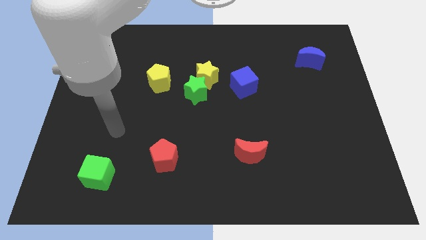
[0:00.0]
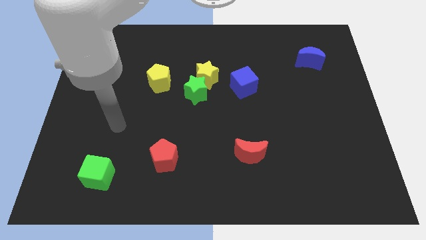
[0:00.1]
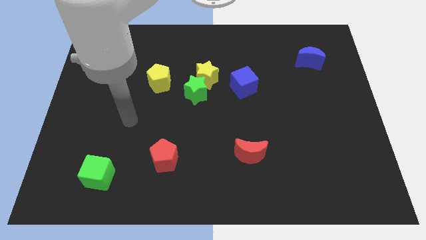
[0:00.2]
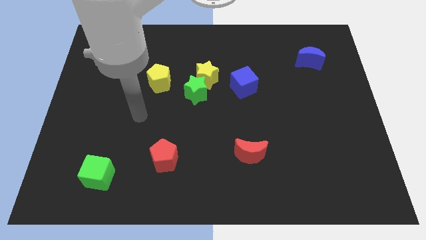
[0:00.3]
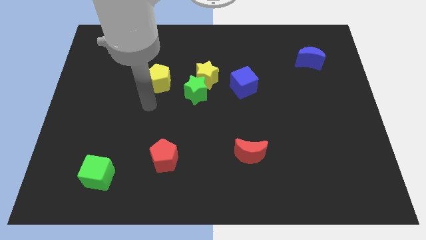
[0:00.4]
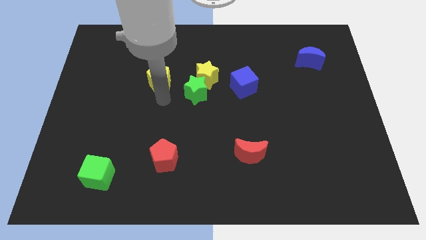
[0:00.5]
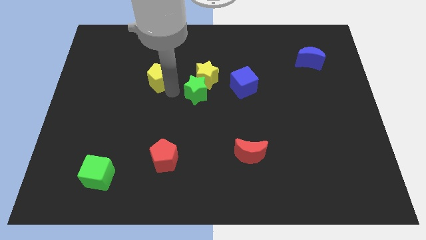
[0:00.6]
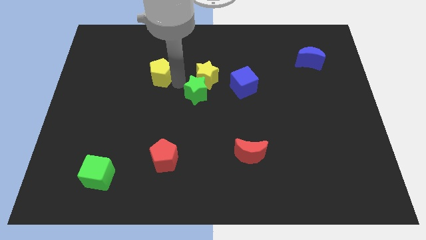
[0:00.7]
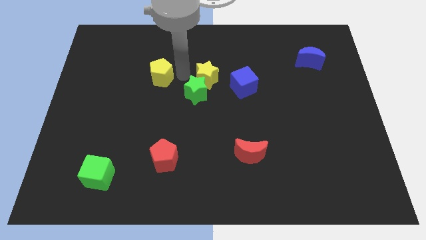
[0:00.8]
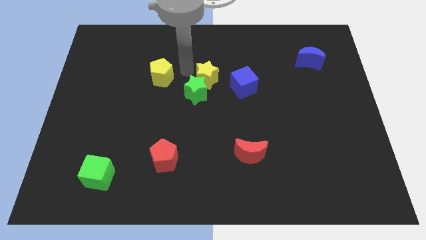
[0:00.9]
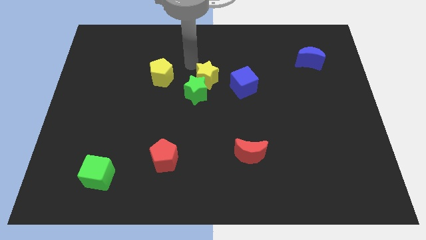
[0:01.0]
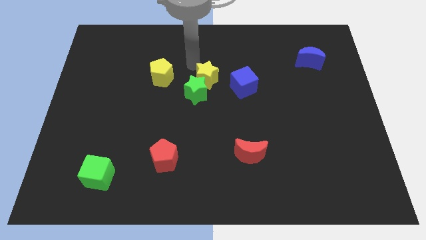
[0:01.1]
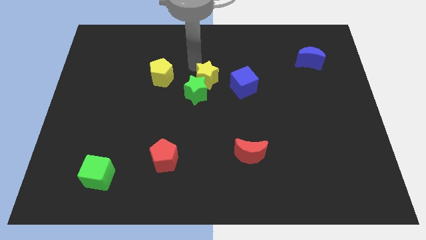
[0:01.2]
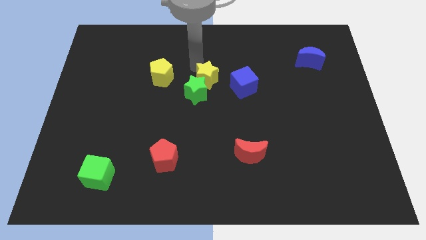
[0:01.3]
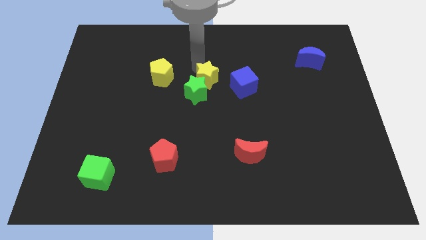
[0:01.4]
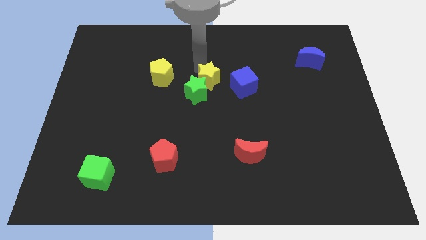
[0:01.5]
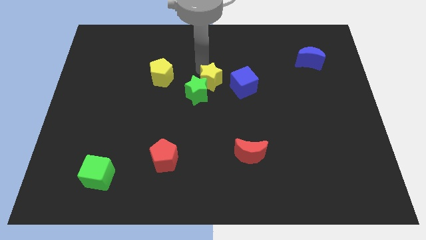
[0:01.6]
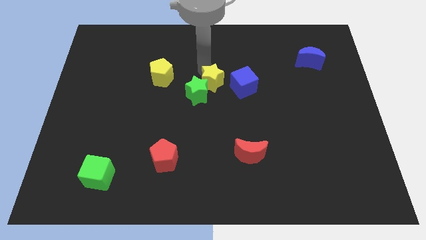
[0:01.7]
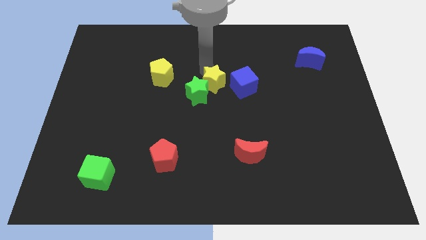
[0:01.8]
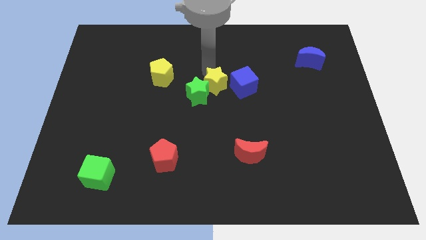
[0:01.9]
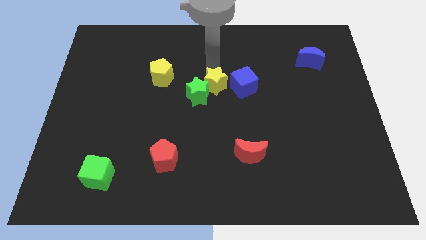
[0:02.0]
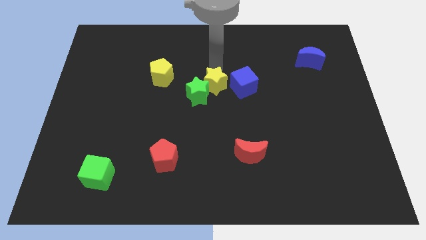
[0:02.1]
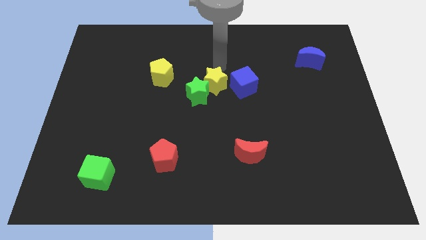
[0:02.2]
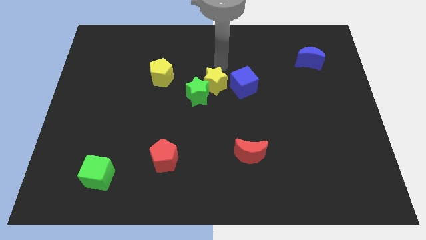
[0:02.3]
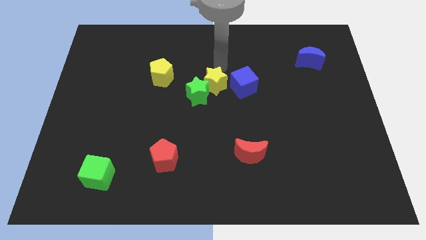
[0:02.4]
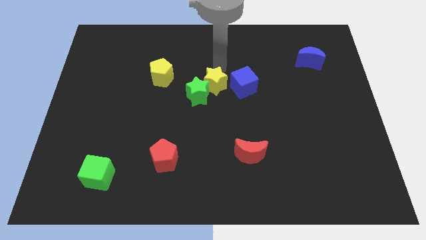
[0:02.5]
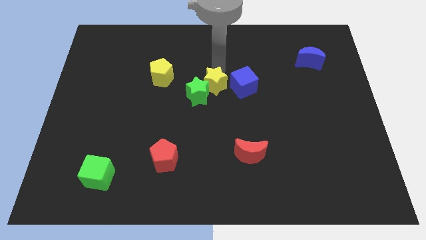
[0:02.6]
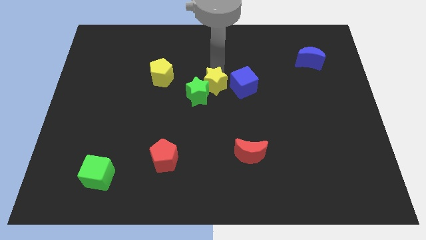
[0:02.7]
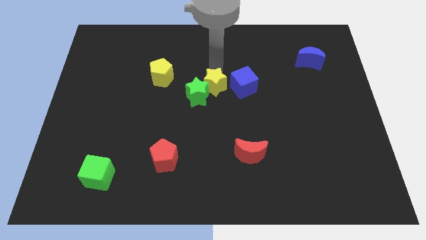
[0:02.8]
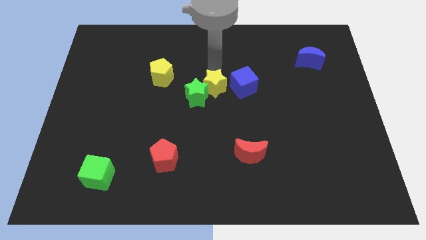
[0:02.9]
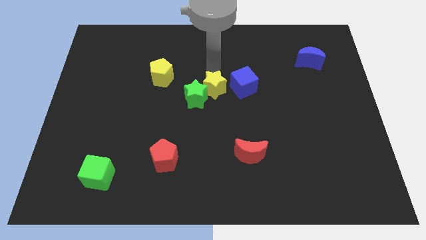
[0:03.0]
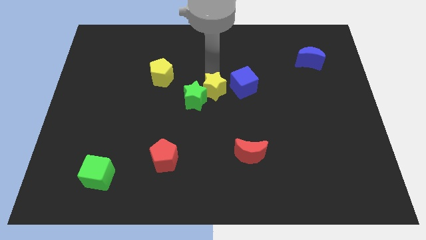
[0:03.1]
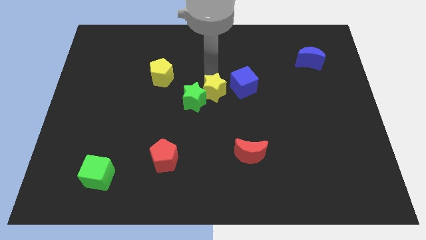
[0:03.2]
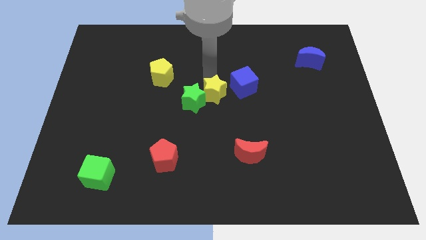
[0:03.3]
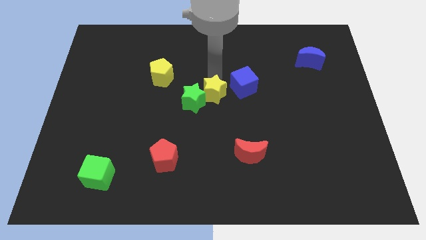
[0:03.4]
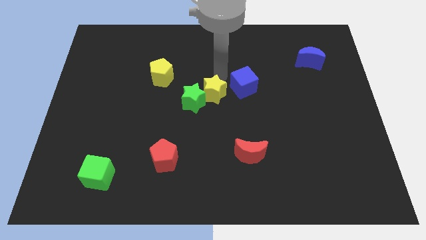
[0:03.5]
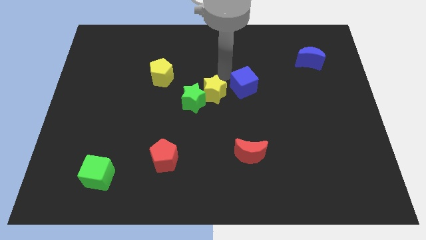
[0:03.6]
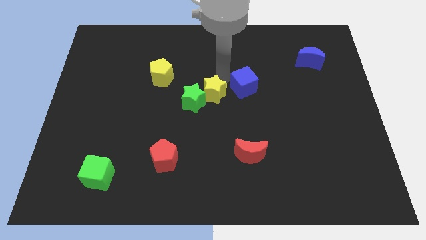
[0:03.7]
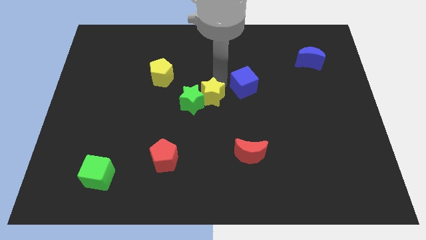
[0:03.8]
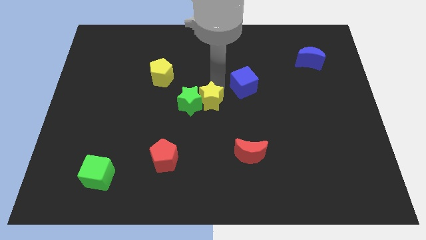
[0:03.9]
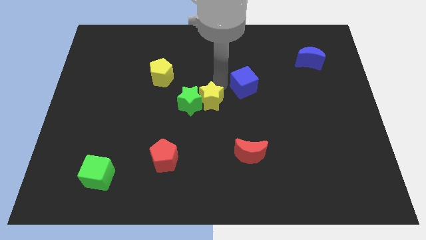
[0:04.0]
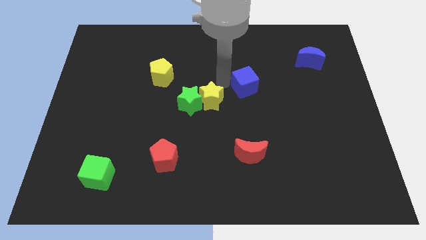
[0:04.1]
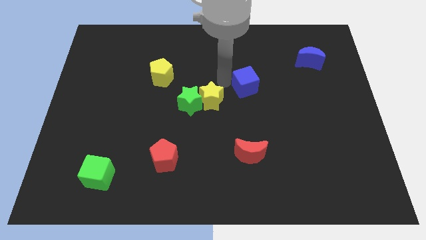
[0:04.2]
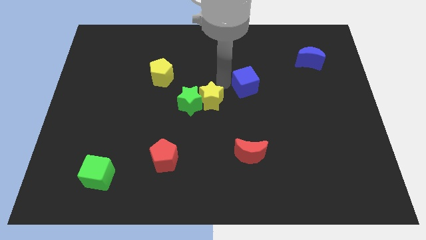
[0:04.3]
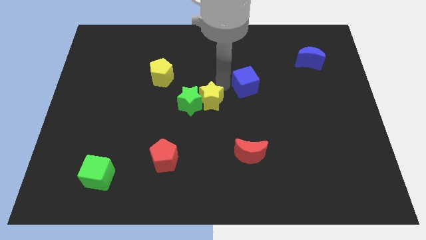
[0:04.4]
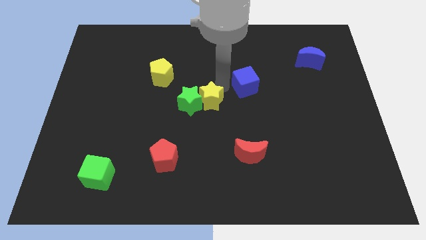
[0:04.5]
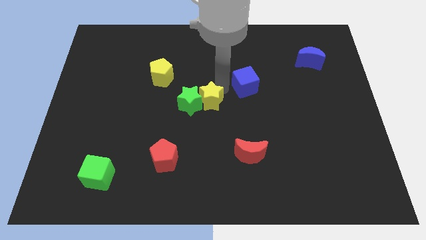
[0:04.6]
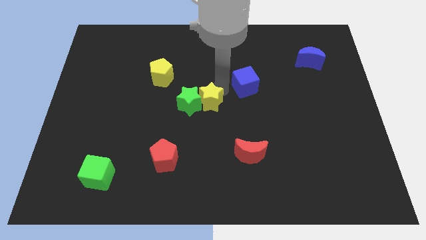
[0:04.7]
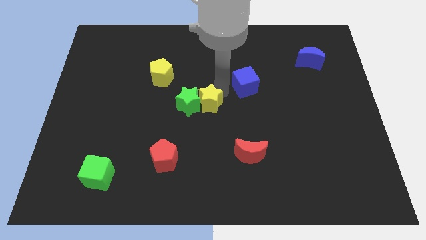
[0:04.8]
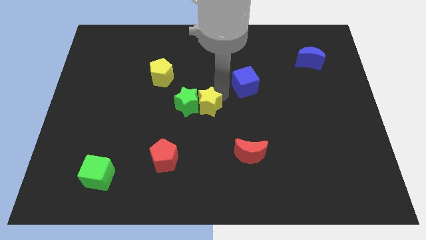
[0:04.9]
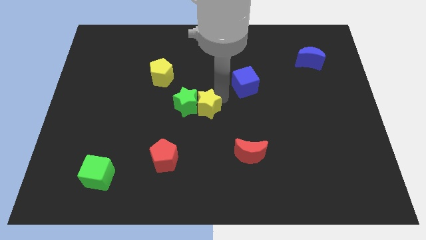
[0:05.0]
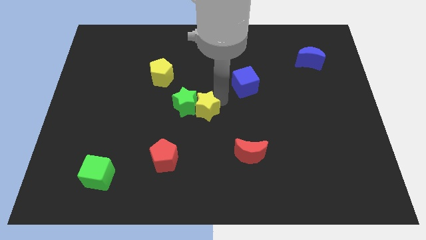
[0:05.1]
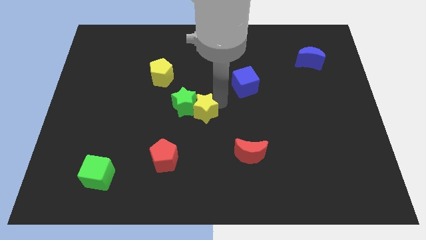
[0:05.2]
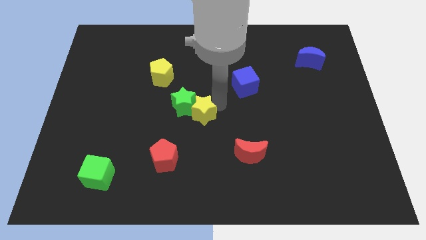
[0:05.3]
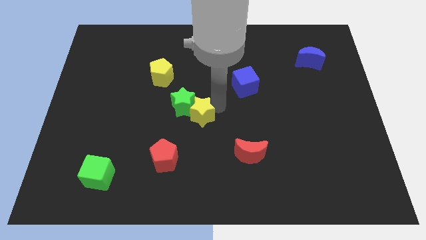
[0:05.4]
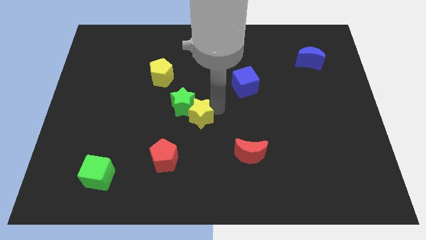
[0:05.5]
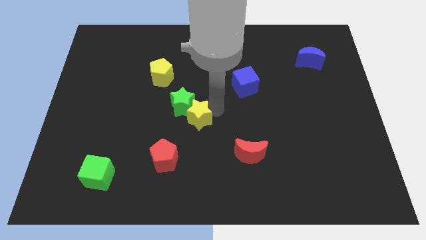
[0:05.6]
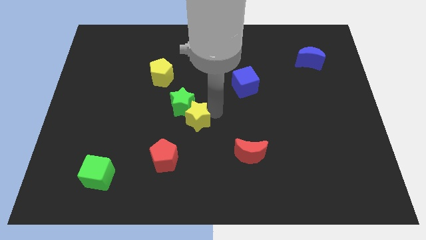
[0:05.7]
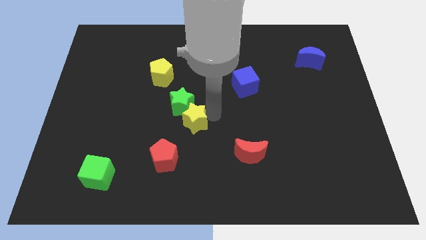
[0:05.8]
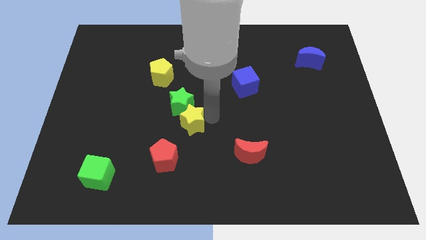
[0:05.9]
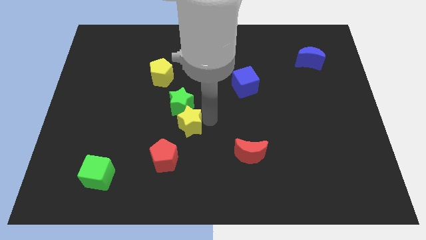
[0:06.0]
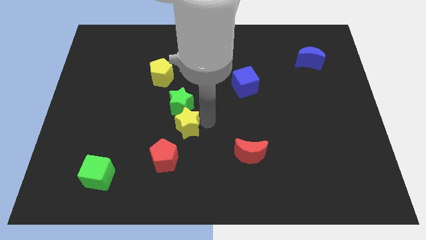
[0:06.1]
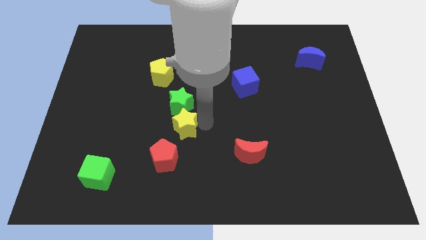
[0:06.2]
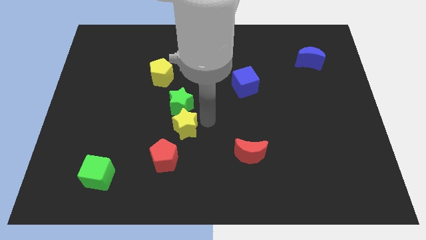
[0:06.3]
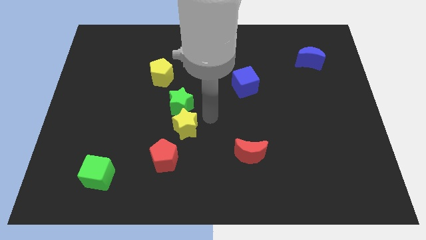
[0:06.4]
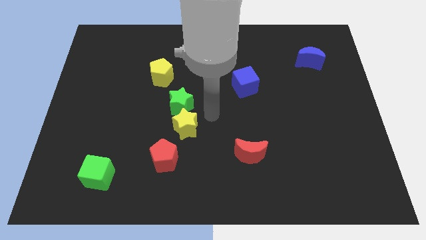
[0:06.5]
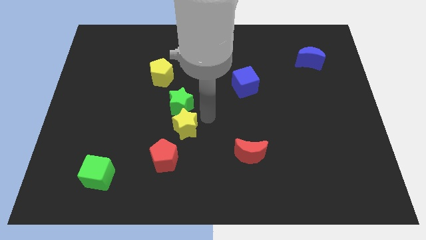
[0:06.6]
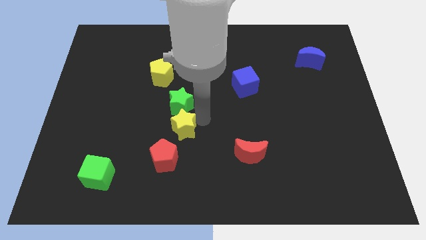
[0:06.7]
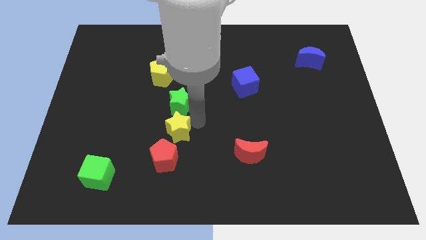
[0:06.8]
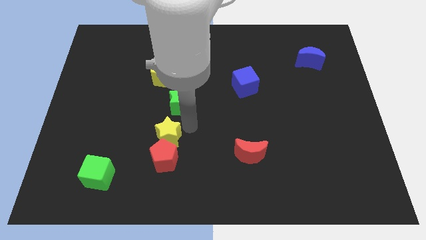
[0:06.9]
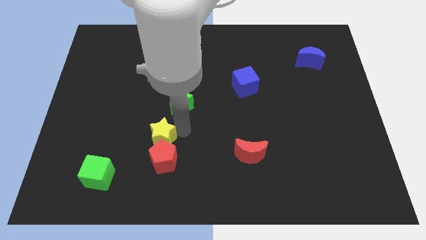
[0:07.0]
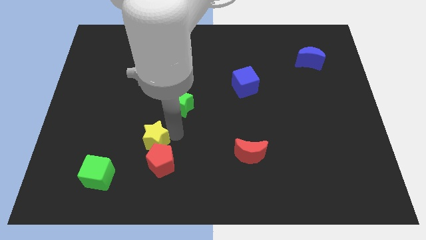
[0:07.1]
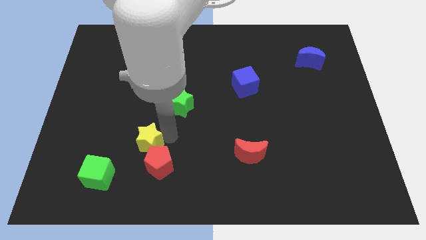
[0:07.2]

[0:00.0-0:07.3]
put the yellow star to the top right side of the green cube

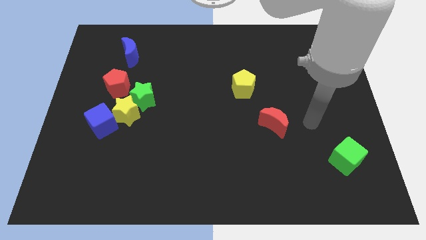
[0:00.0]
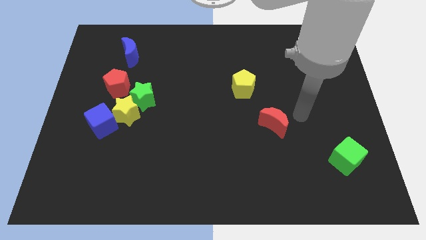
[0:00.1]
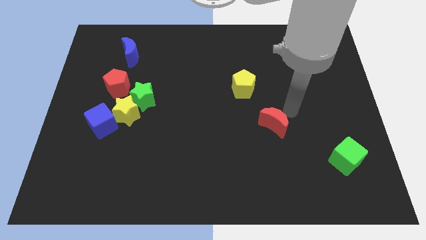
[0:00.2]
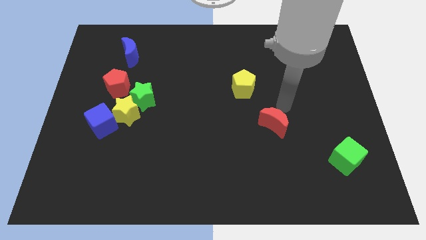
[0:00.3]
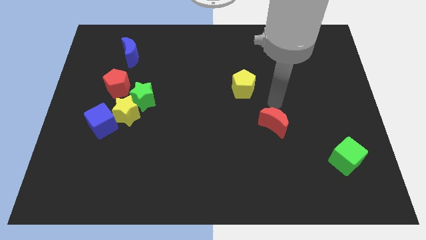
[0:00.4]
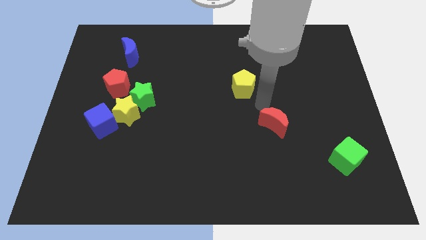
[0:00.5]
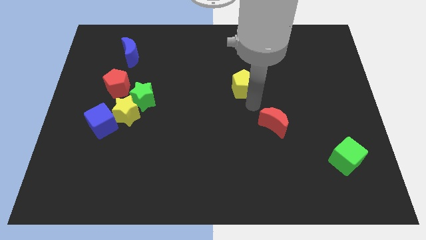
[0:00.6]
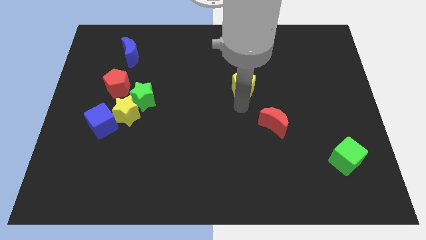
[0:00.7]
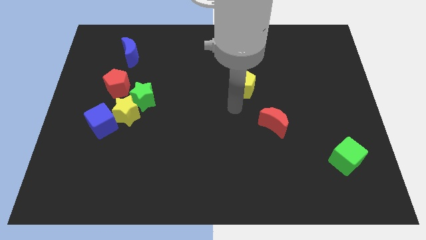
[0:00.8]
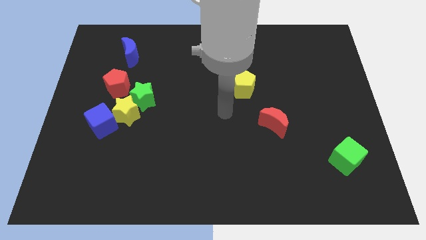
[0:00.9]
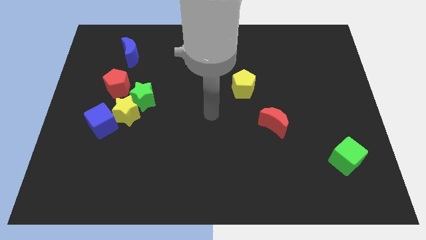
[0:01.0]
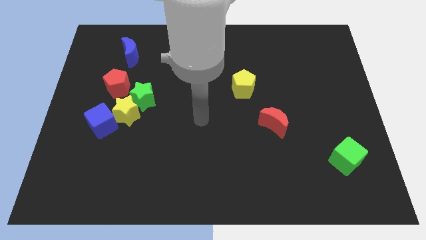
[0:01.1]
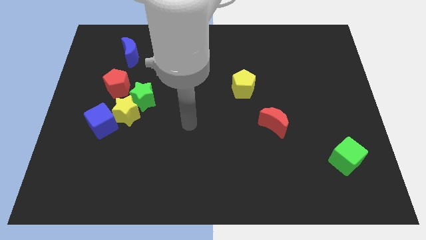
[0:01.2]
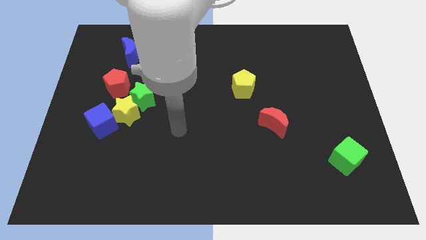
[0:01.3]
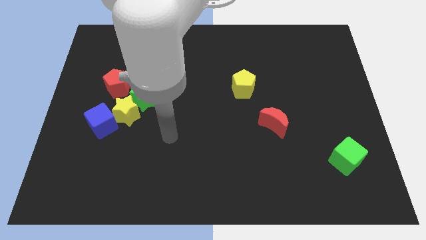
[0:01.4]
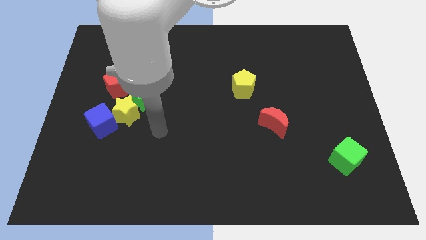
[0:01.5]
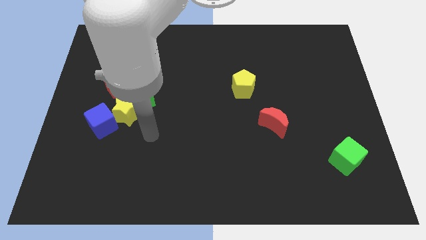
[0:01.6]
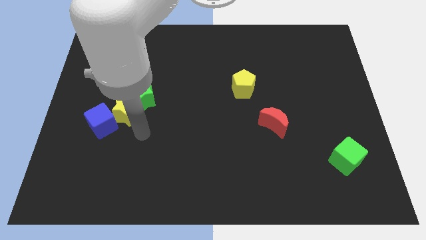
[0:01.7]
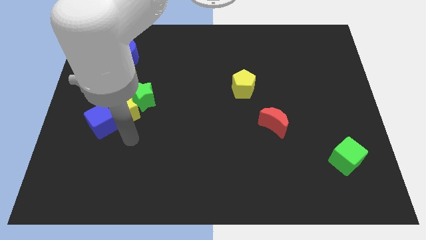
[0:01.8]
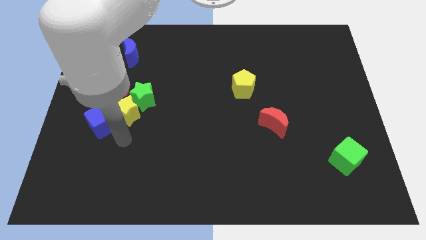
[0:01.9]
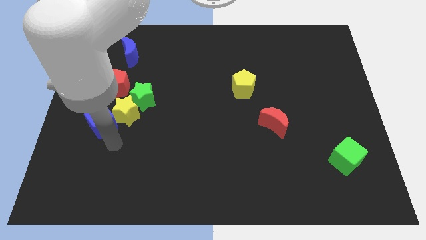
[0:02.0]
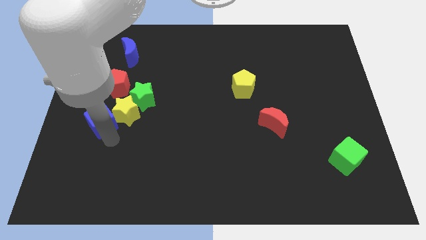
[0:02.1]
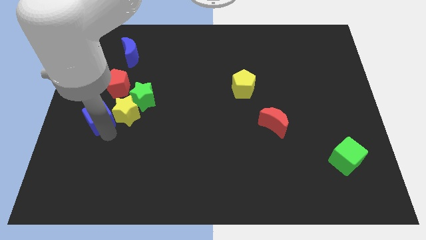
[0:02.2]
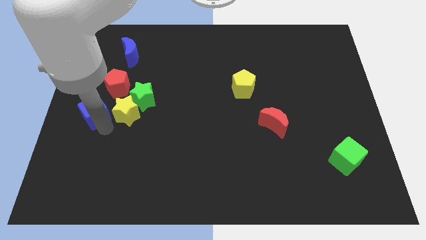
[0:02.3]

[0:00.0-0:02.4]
move the blue cube to the bottom left of the red pentagon
